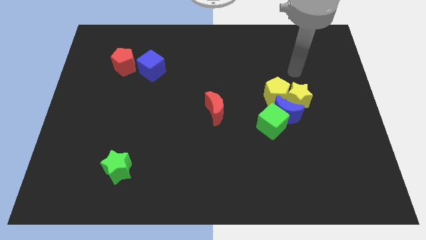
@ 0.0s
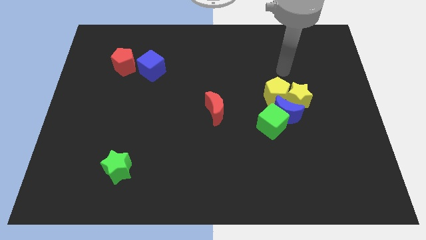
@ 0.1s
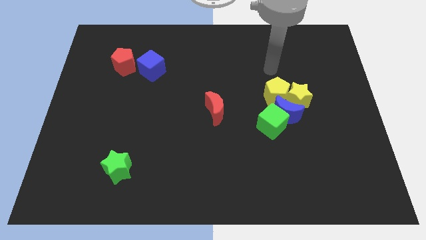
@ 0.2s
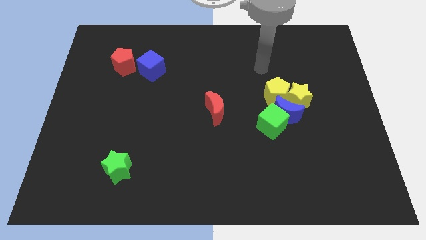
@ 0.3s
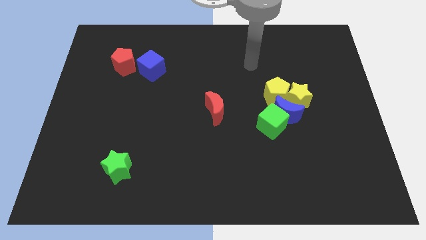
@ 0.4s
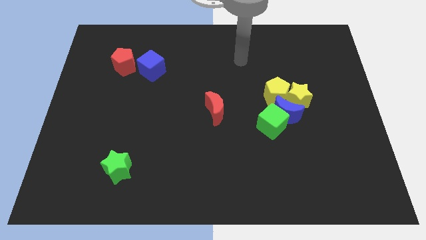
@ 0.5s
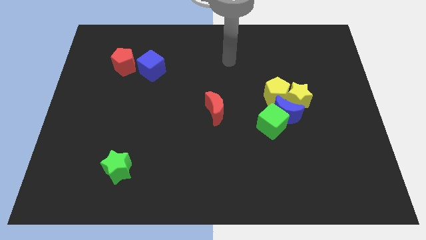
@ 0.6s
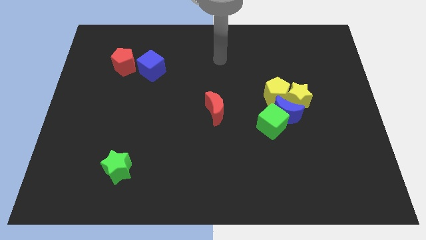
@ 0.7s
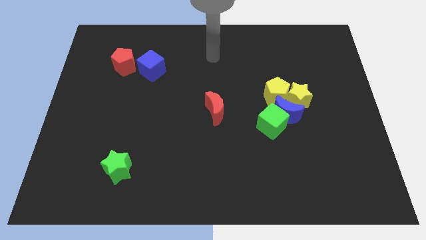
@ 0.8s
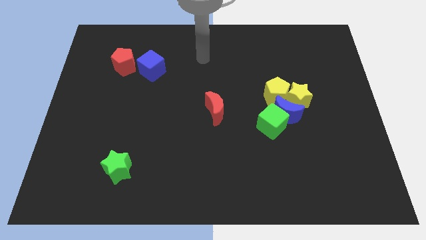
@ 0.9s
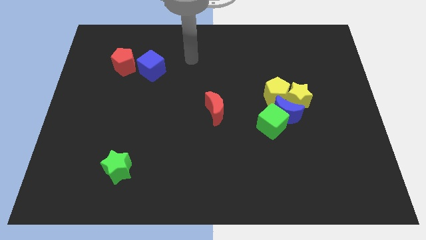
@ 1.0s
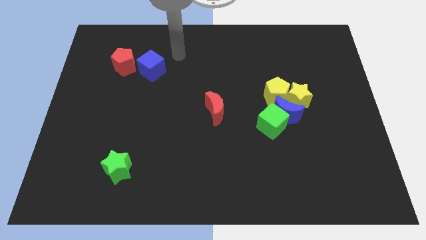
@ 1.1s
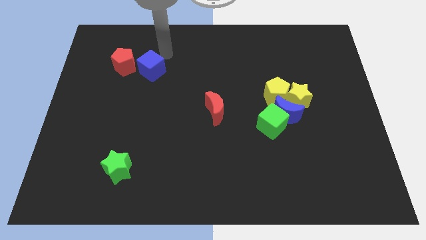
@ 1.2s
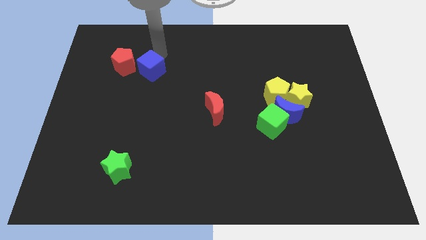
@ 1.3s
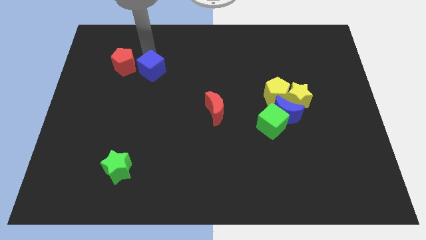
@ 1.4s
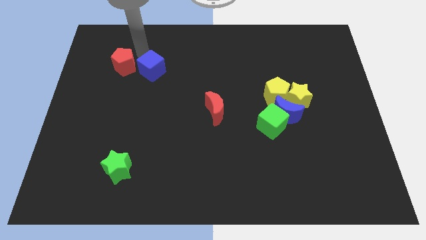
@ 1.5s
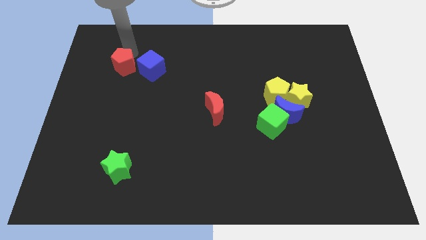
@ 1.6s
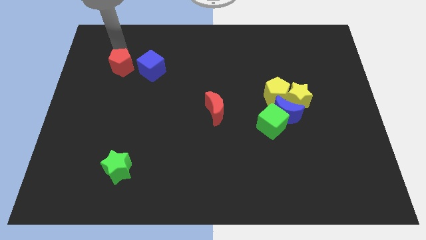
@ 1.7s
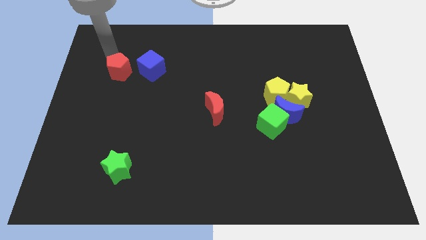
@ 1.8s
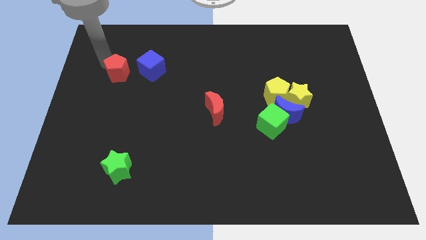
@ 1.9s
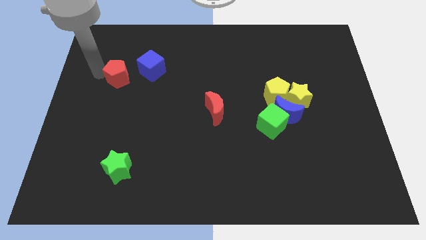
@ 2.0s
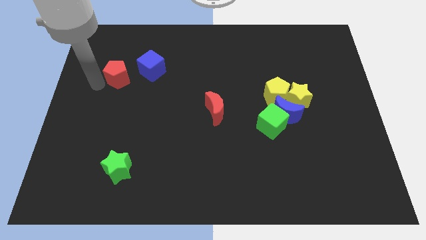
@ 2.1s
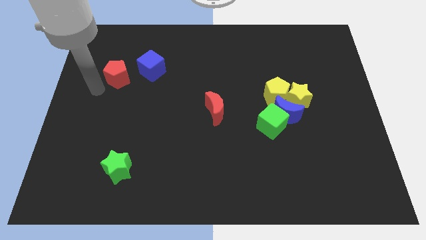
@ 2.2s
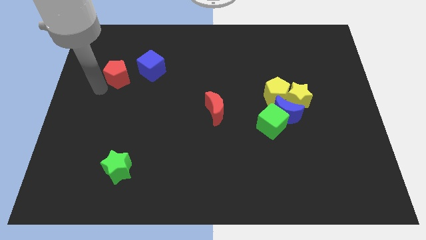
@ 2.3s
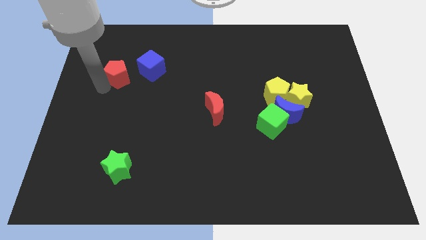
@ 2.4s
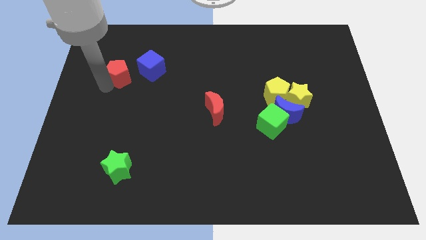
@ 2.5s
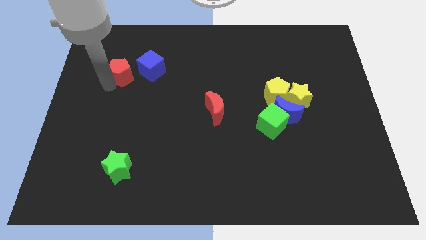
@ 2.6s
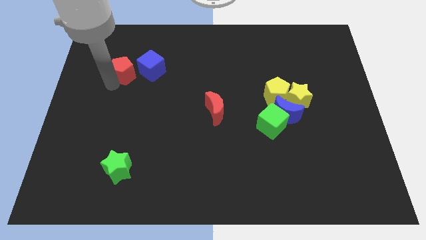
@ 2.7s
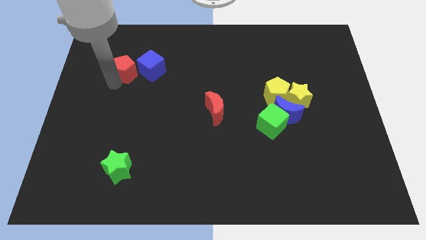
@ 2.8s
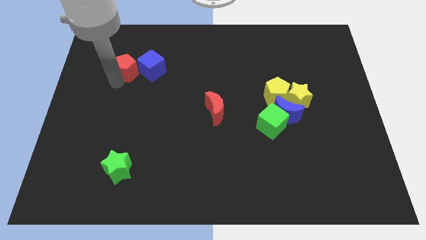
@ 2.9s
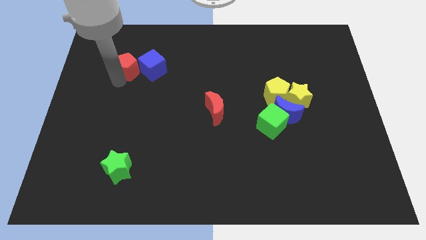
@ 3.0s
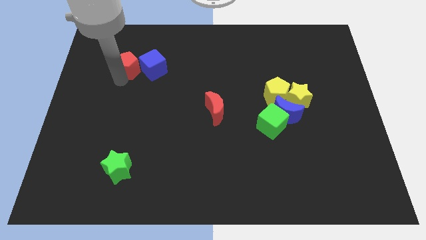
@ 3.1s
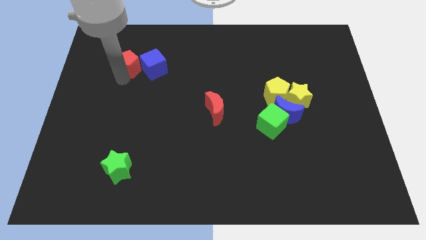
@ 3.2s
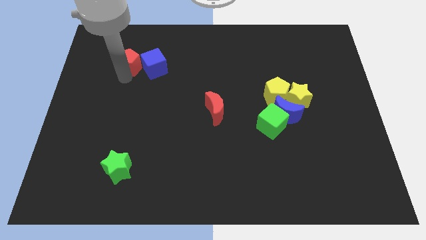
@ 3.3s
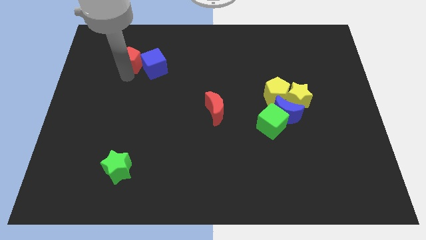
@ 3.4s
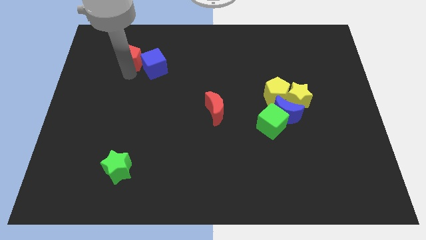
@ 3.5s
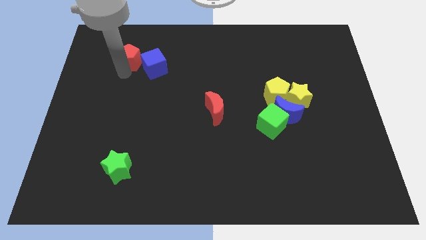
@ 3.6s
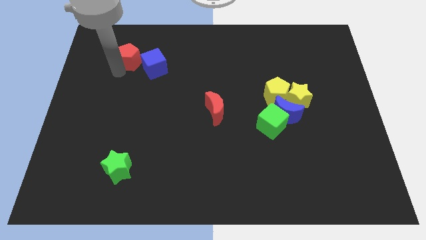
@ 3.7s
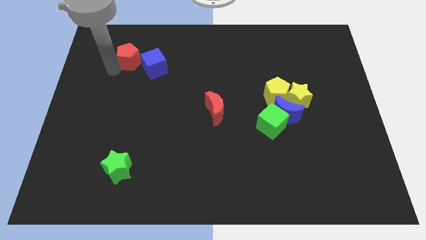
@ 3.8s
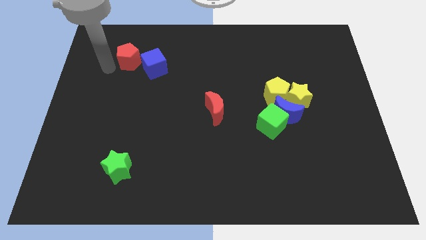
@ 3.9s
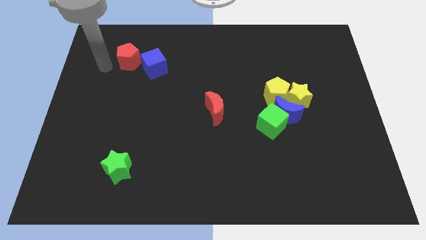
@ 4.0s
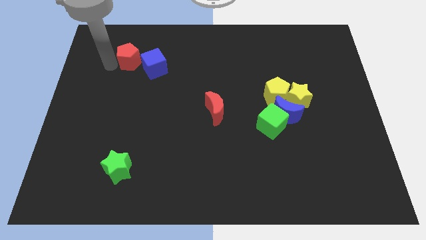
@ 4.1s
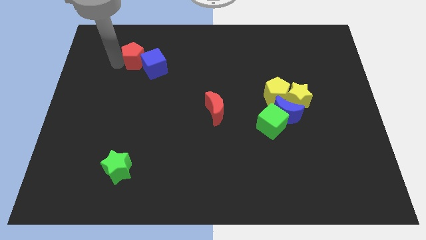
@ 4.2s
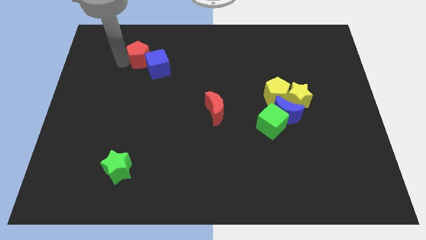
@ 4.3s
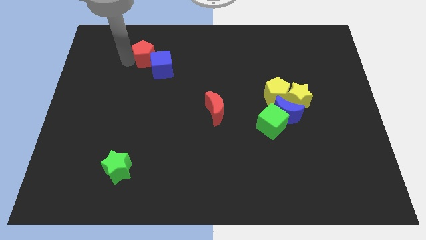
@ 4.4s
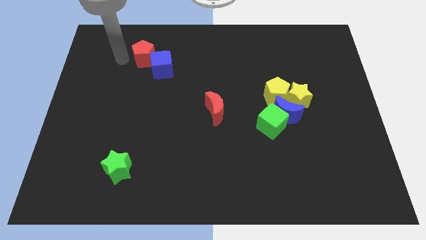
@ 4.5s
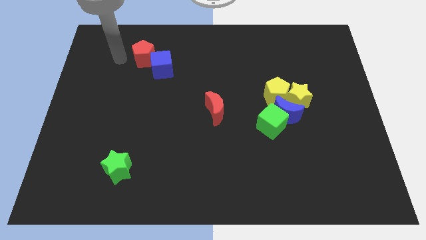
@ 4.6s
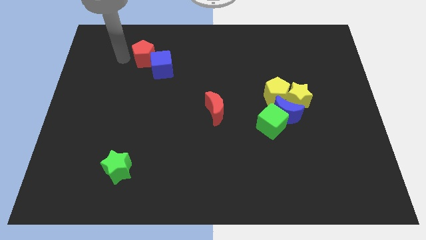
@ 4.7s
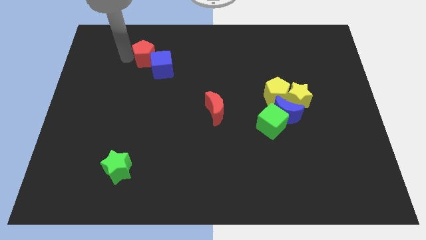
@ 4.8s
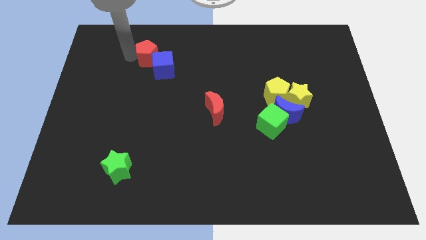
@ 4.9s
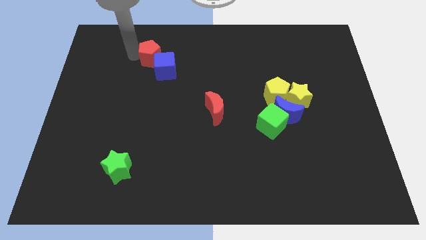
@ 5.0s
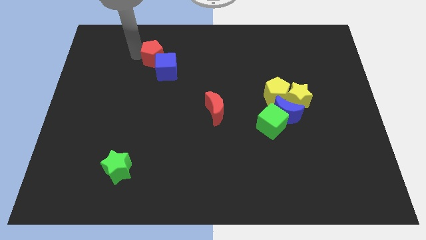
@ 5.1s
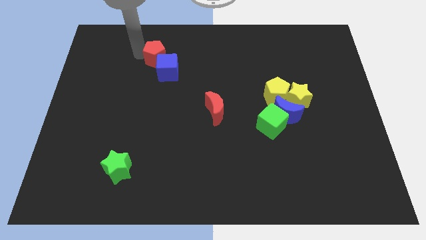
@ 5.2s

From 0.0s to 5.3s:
slightly move the red pentagon to the right

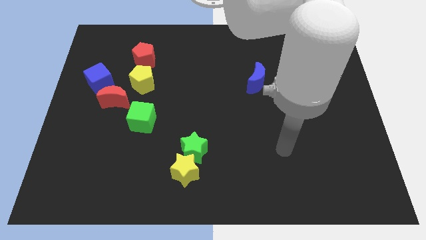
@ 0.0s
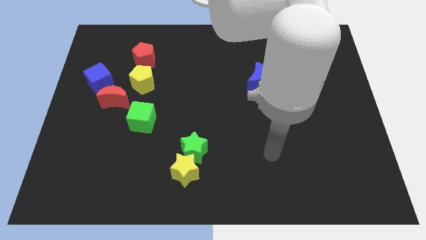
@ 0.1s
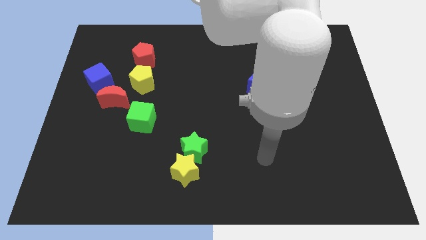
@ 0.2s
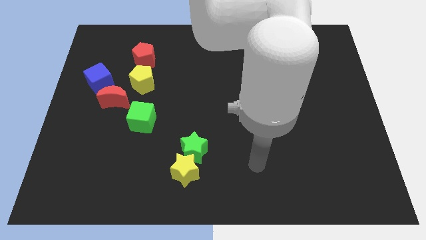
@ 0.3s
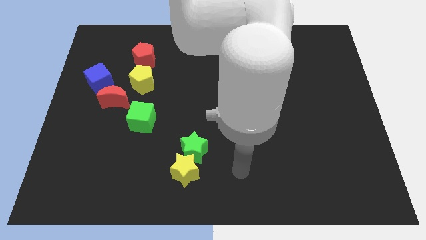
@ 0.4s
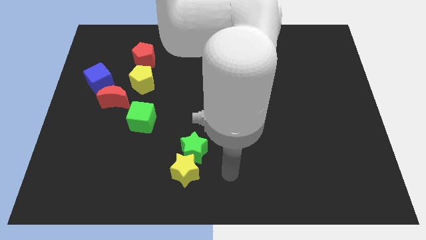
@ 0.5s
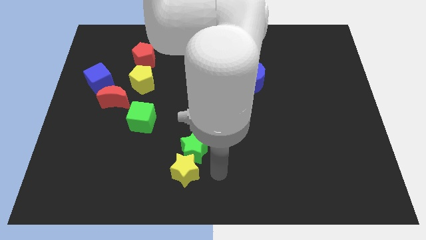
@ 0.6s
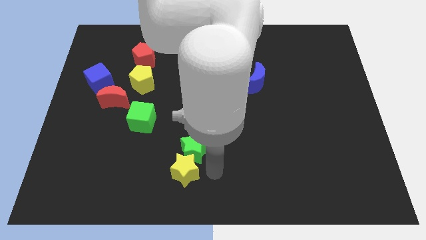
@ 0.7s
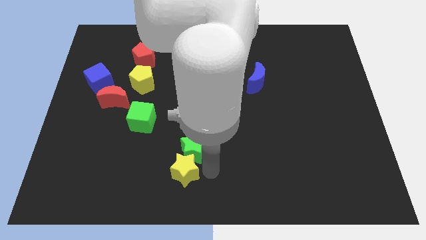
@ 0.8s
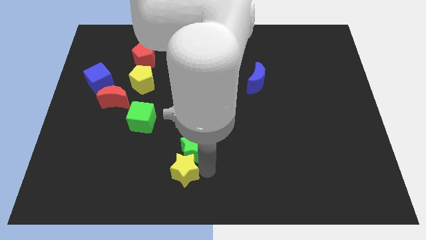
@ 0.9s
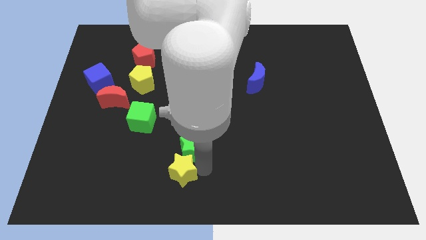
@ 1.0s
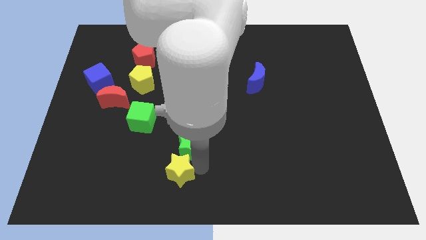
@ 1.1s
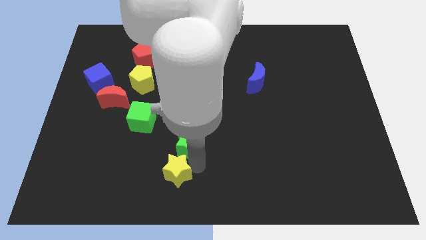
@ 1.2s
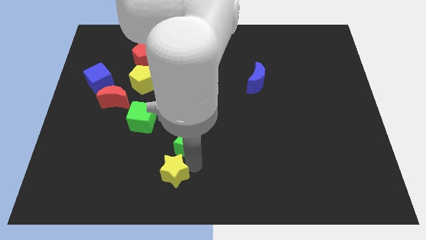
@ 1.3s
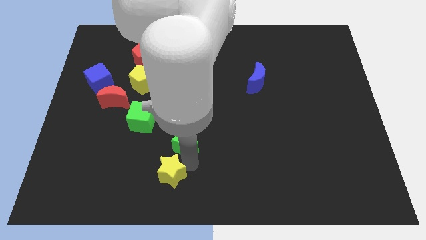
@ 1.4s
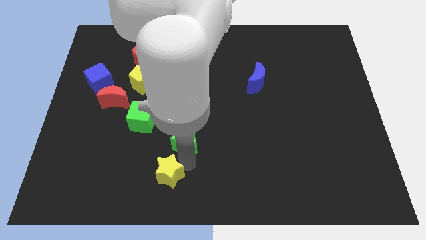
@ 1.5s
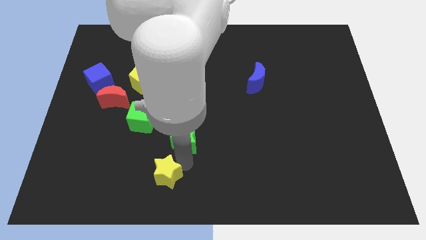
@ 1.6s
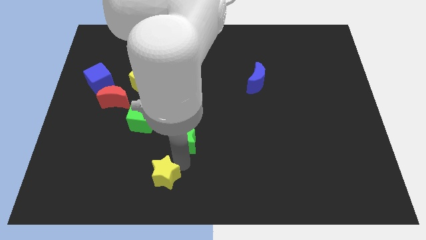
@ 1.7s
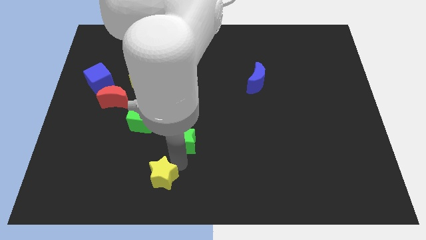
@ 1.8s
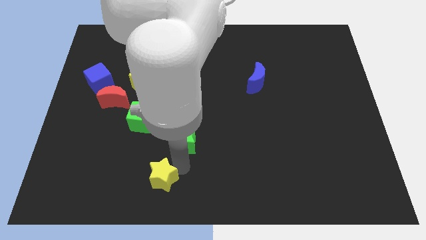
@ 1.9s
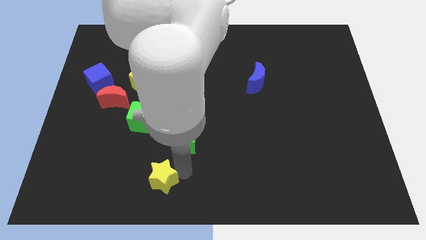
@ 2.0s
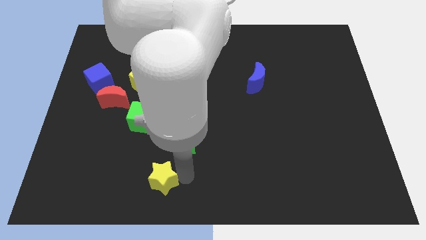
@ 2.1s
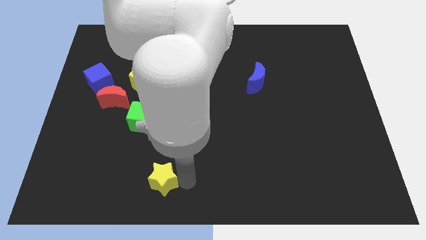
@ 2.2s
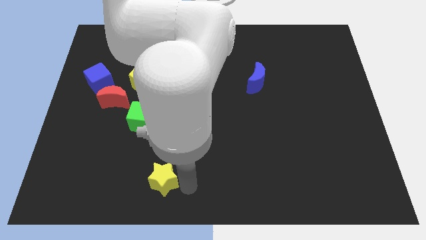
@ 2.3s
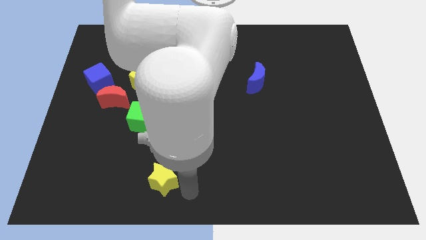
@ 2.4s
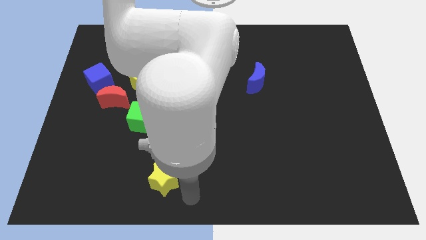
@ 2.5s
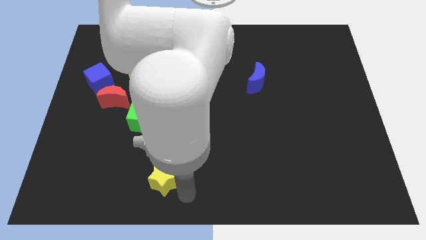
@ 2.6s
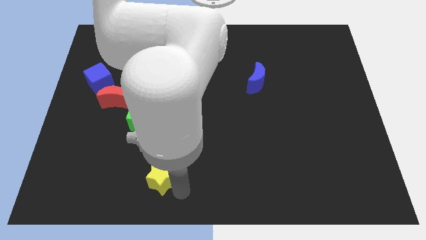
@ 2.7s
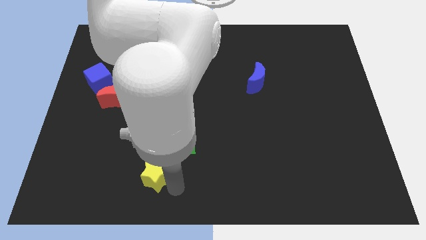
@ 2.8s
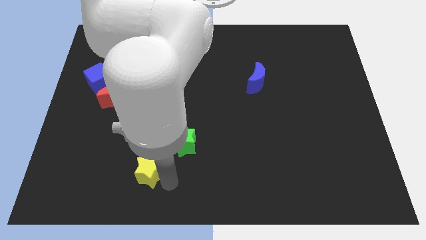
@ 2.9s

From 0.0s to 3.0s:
push the yellow star left a little bit

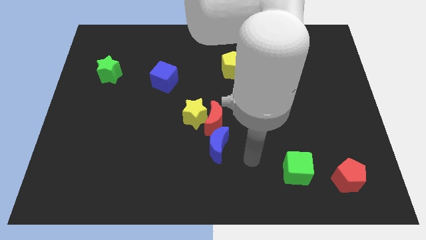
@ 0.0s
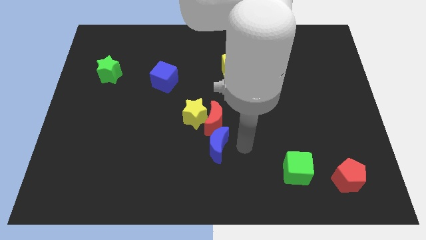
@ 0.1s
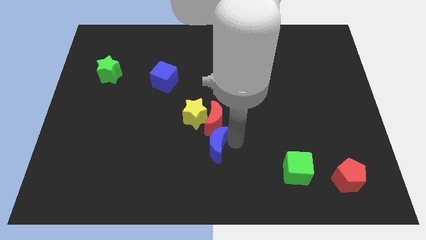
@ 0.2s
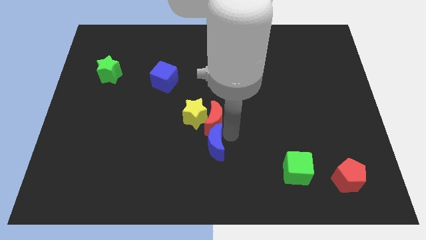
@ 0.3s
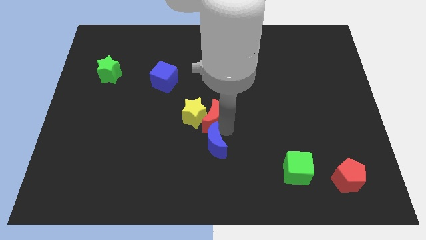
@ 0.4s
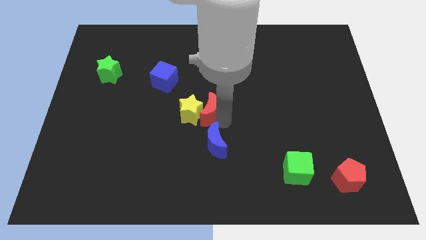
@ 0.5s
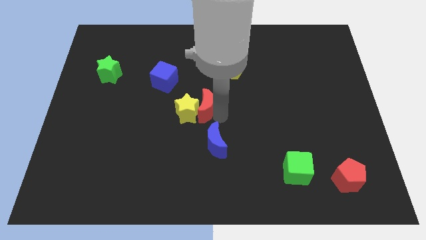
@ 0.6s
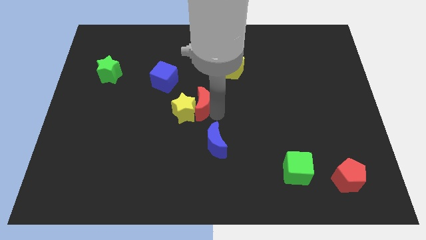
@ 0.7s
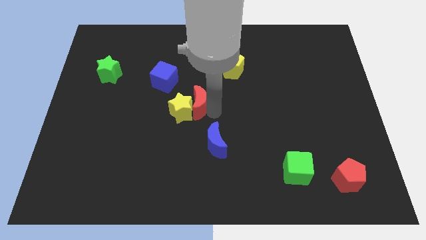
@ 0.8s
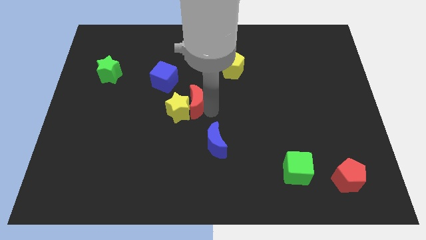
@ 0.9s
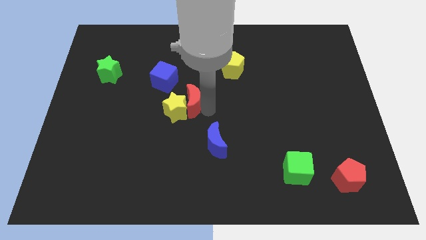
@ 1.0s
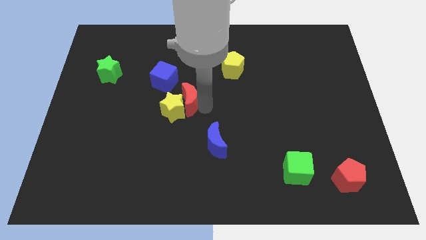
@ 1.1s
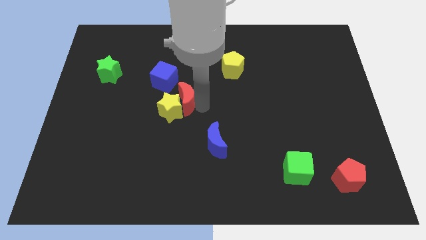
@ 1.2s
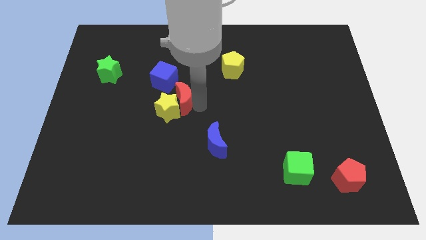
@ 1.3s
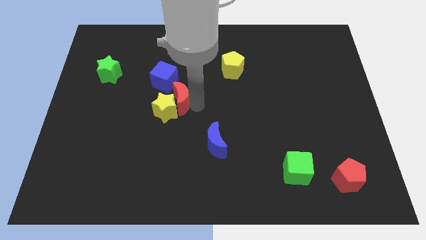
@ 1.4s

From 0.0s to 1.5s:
move the yellow star a little bit left
